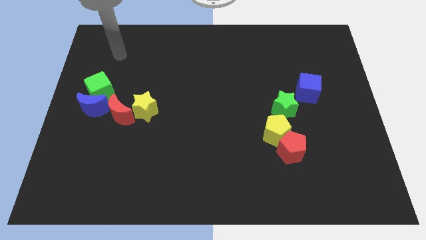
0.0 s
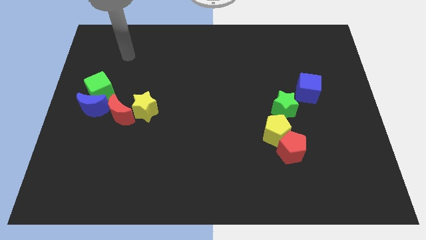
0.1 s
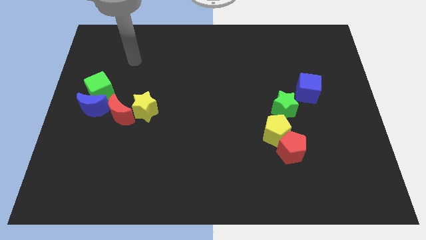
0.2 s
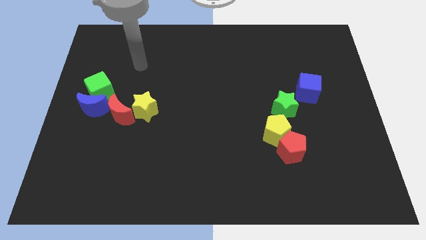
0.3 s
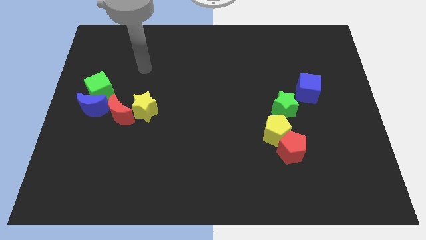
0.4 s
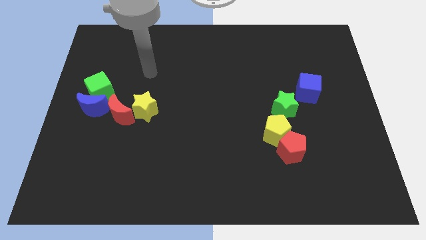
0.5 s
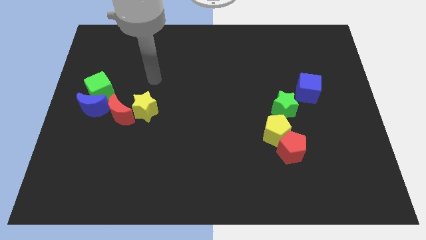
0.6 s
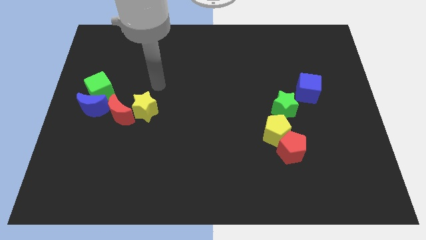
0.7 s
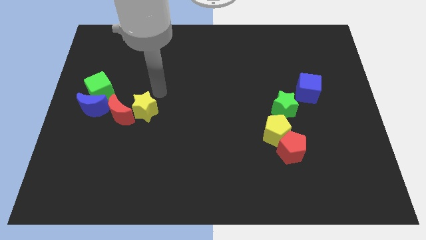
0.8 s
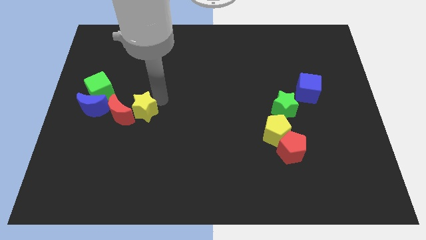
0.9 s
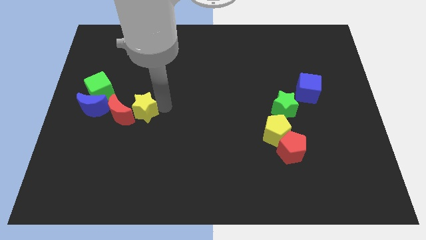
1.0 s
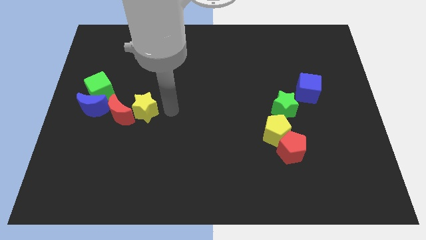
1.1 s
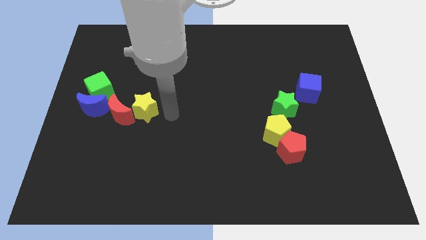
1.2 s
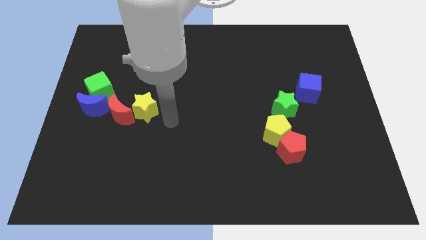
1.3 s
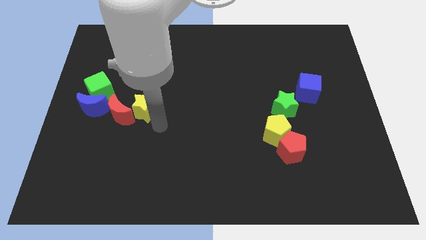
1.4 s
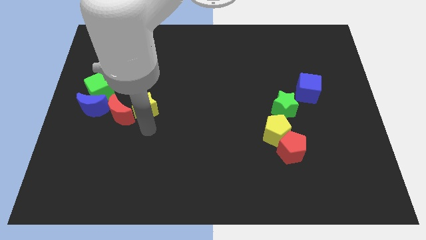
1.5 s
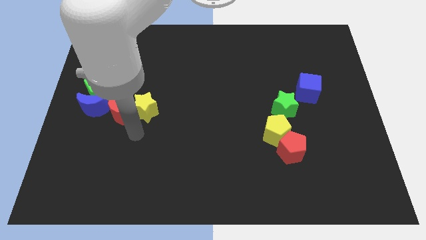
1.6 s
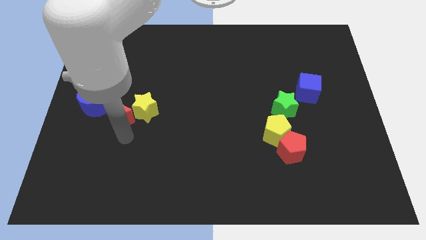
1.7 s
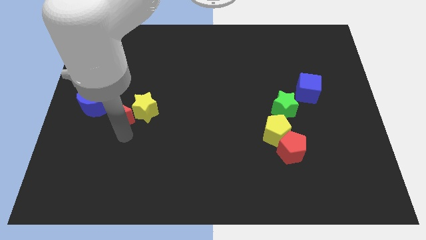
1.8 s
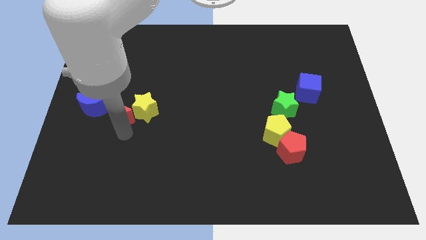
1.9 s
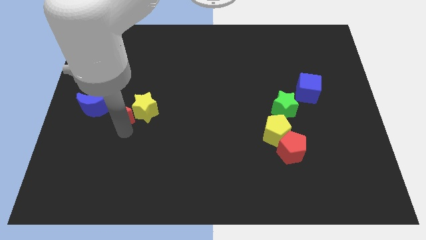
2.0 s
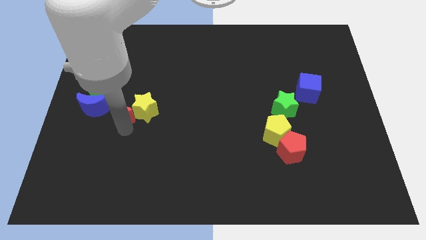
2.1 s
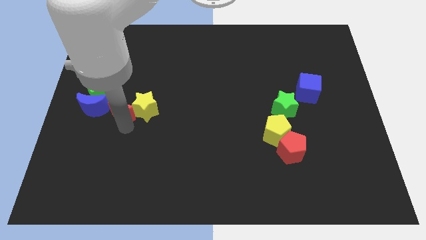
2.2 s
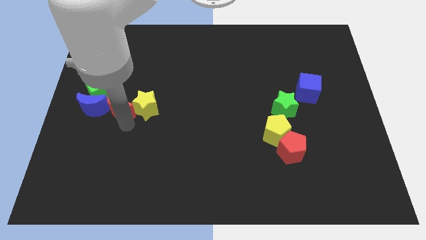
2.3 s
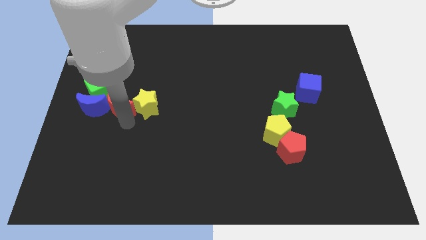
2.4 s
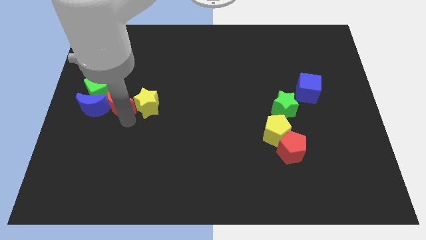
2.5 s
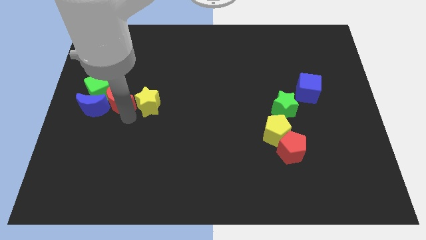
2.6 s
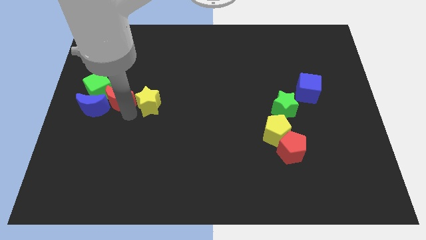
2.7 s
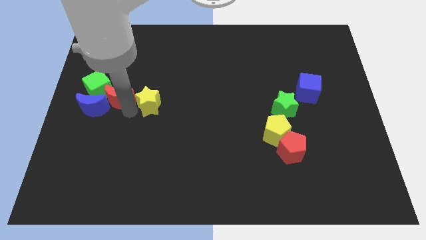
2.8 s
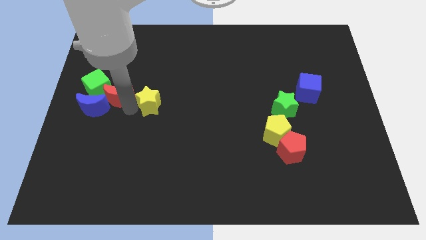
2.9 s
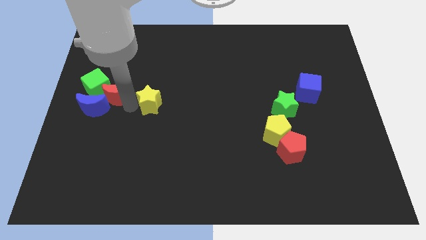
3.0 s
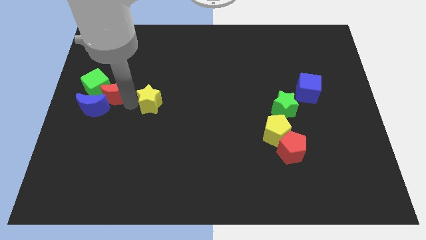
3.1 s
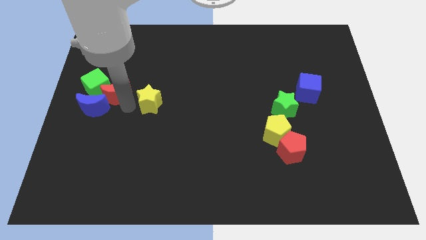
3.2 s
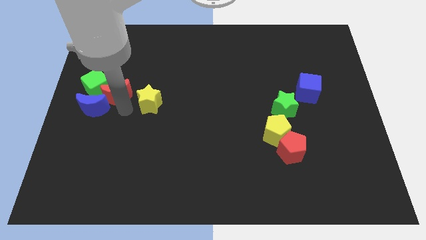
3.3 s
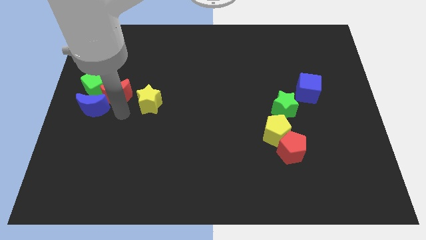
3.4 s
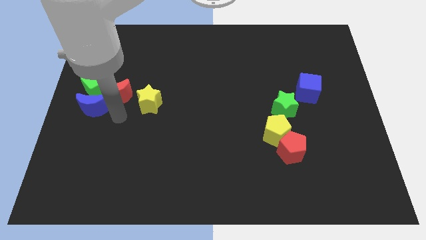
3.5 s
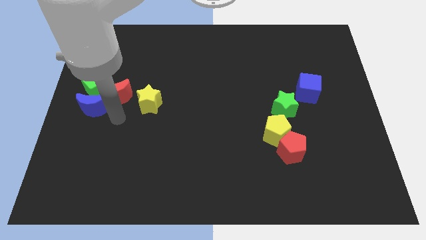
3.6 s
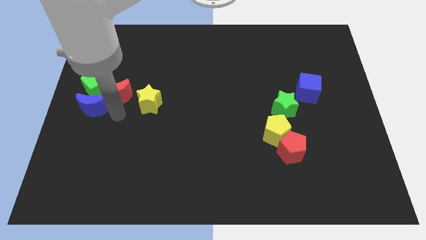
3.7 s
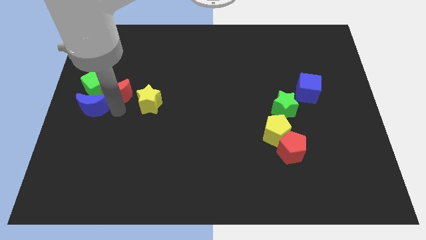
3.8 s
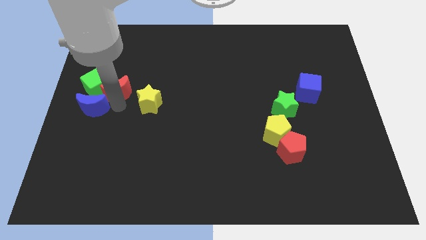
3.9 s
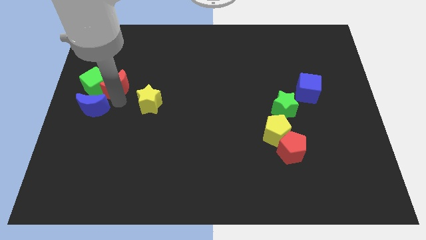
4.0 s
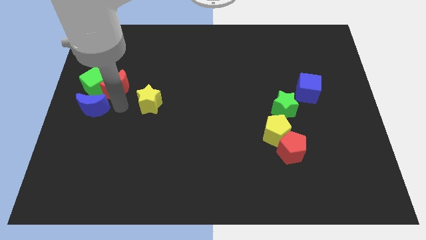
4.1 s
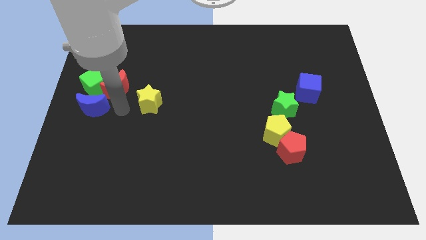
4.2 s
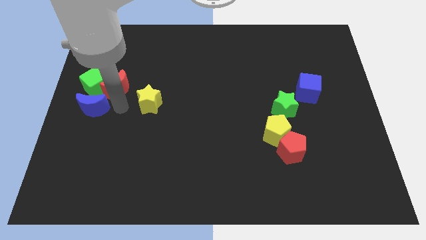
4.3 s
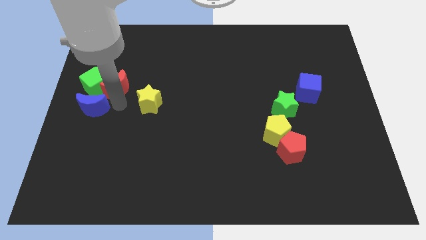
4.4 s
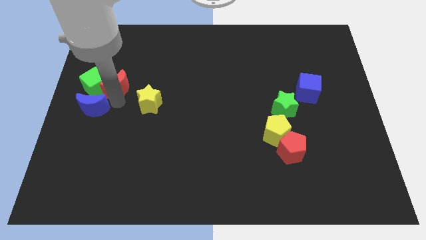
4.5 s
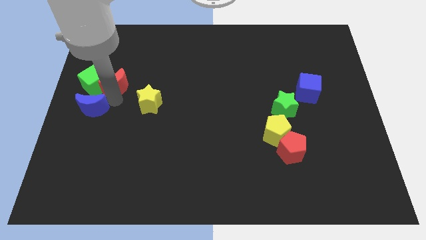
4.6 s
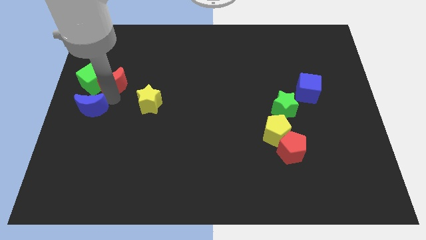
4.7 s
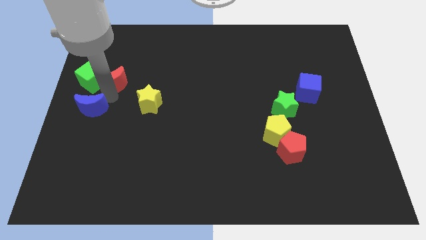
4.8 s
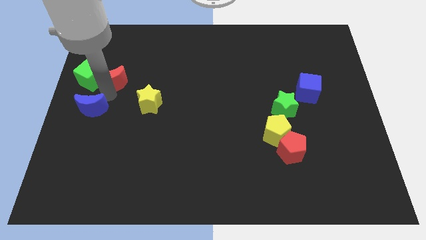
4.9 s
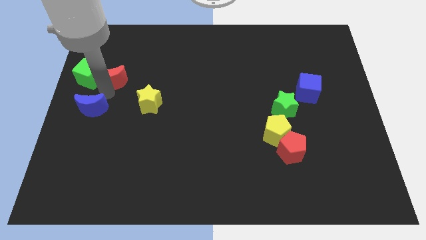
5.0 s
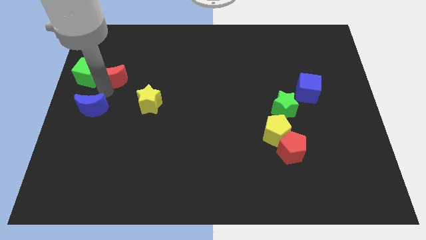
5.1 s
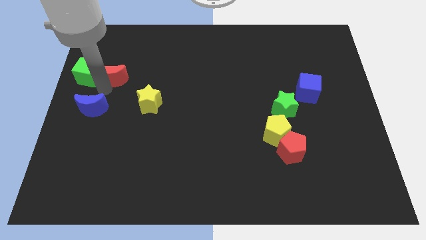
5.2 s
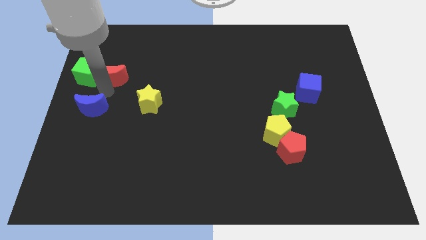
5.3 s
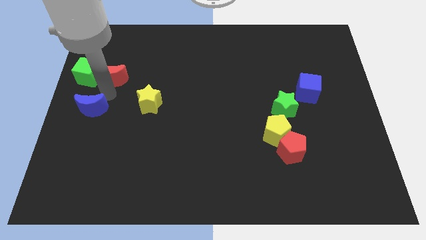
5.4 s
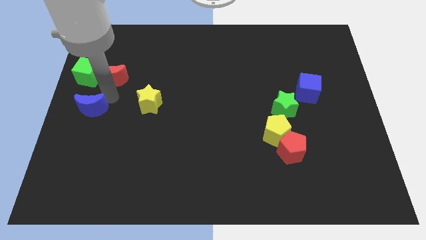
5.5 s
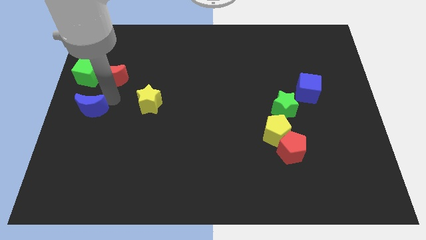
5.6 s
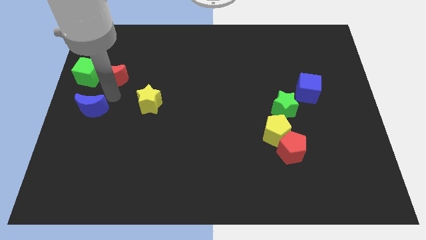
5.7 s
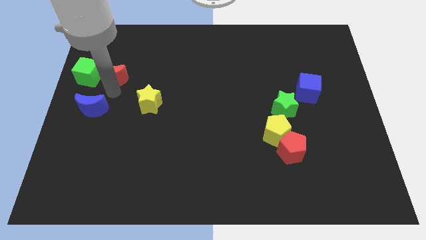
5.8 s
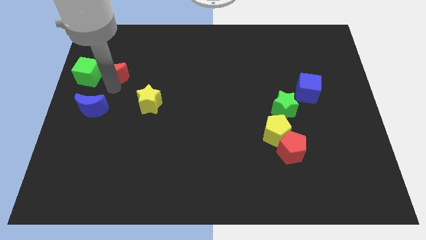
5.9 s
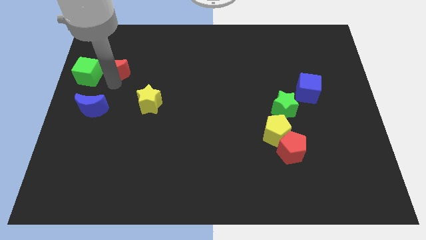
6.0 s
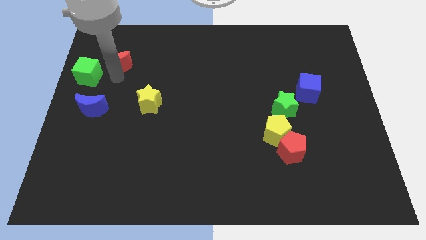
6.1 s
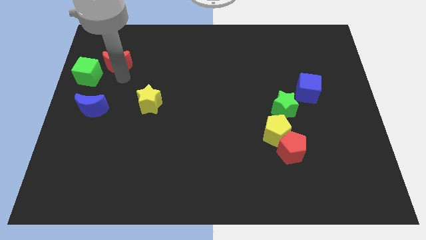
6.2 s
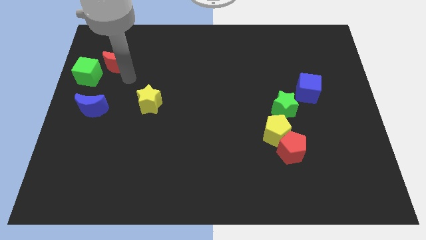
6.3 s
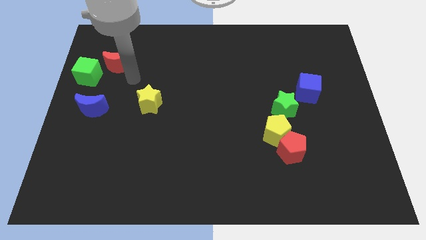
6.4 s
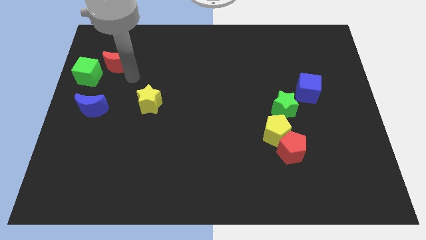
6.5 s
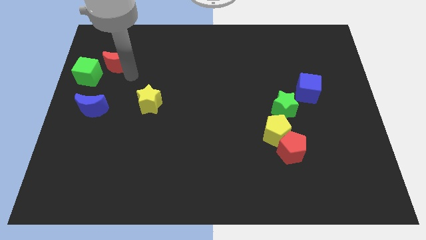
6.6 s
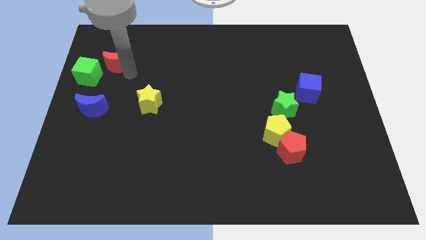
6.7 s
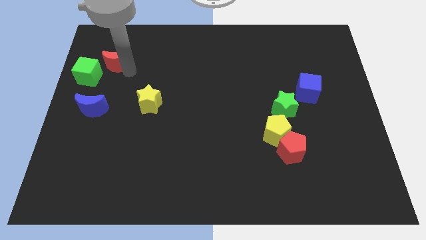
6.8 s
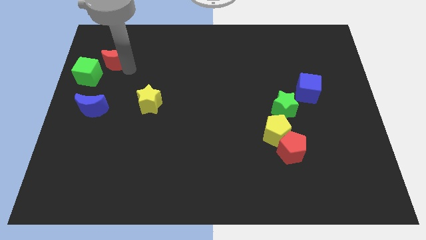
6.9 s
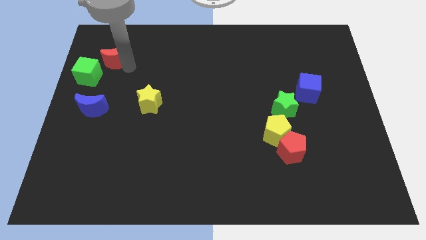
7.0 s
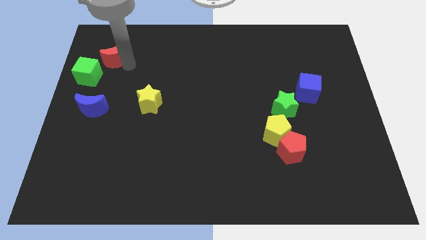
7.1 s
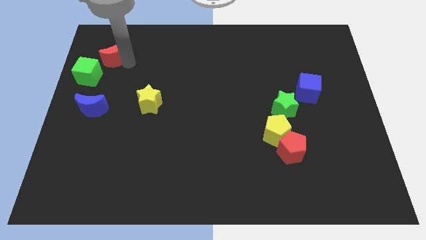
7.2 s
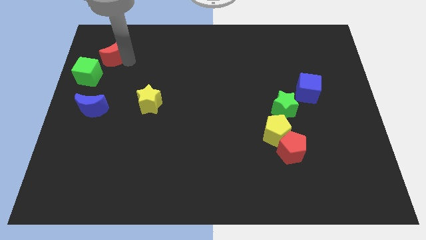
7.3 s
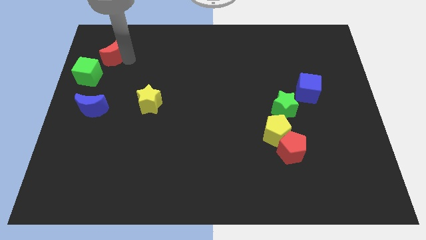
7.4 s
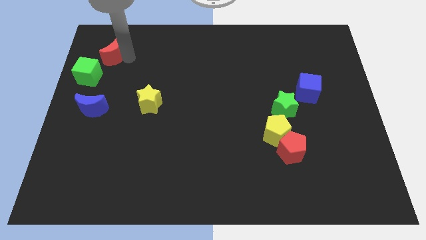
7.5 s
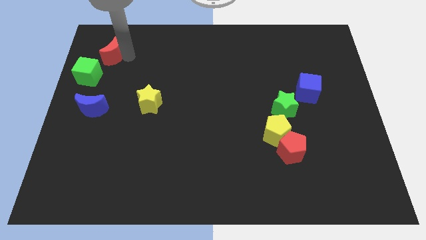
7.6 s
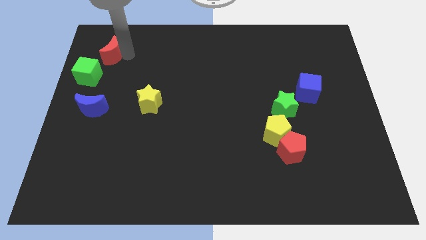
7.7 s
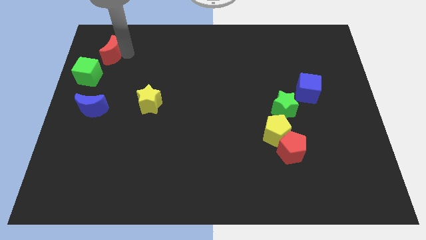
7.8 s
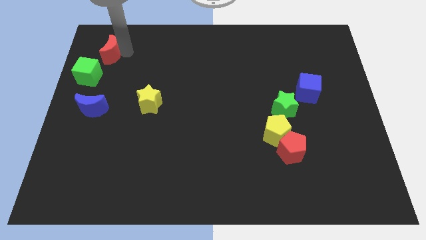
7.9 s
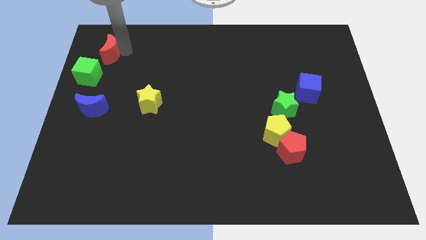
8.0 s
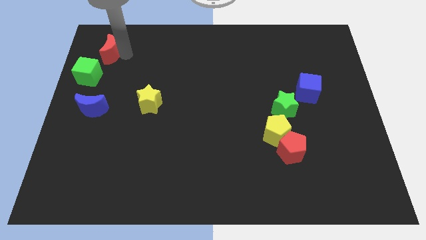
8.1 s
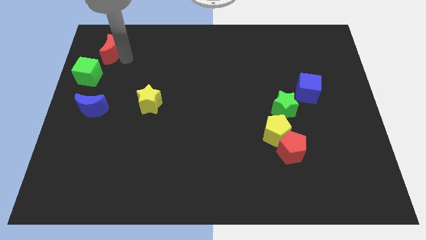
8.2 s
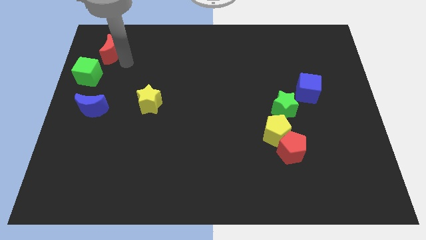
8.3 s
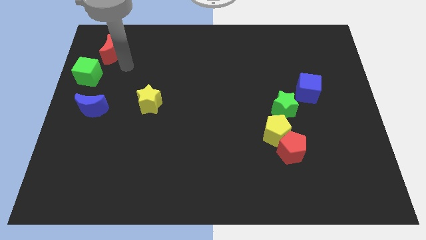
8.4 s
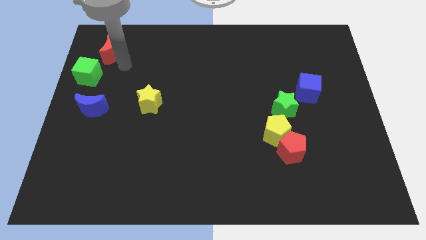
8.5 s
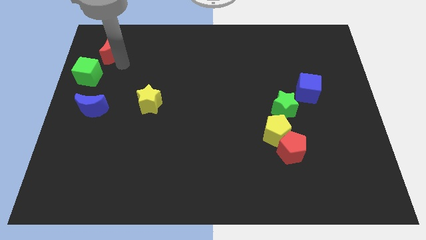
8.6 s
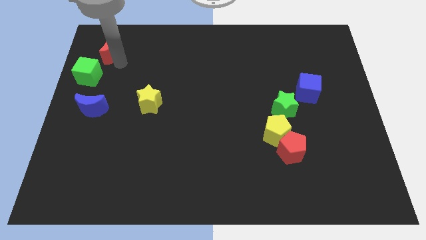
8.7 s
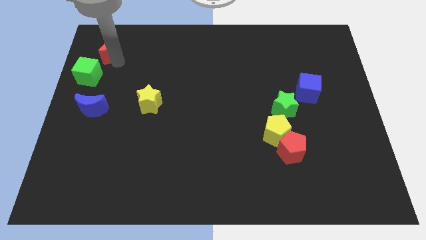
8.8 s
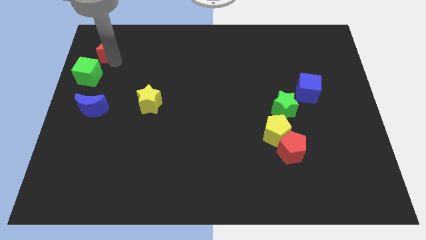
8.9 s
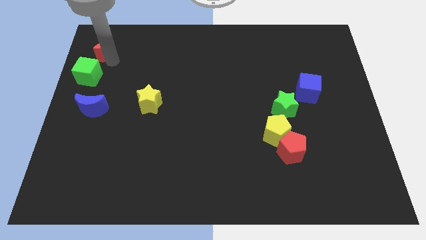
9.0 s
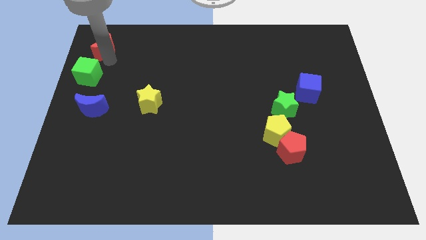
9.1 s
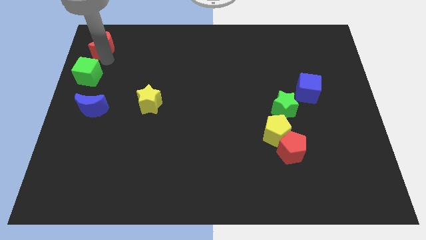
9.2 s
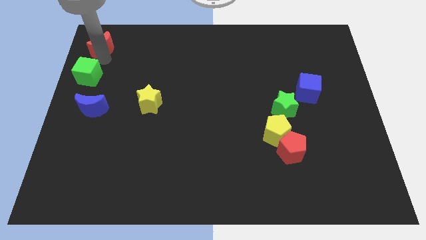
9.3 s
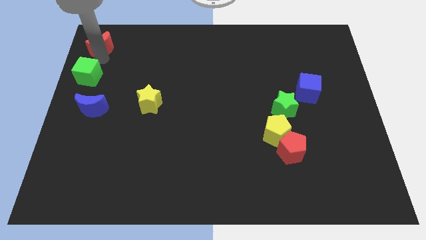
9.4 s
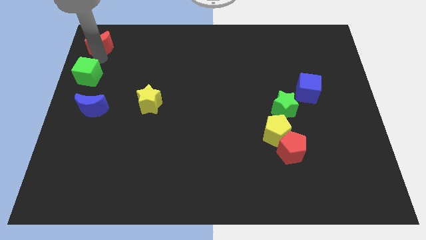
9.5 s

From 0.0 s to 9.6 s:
put the red moon to the top left
